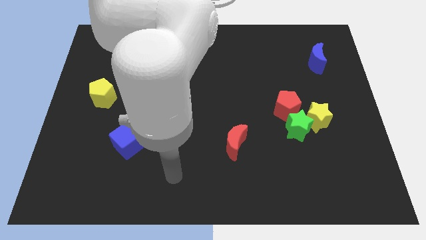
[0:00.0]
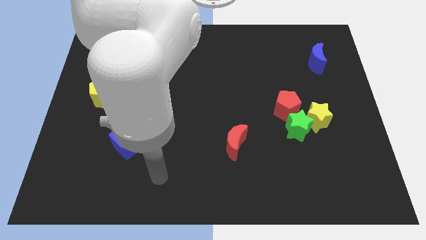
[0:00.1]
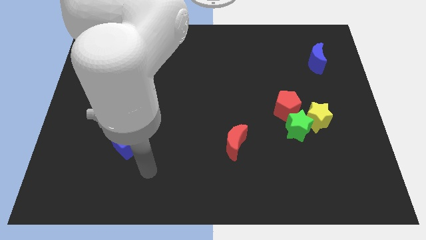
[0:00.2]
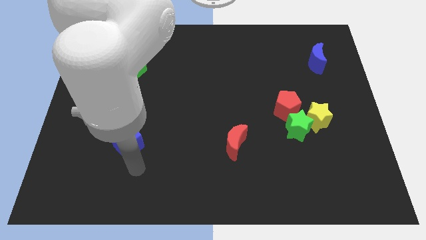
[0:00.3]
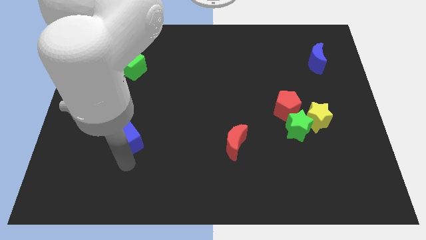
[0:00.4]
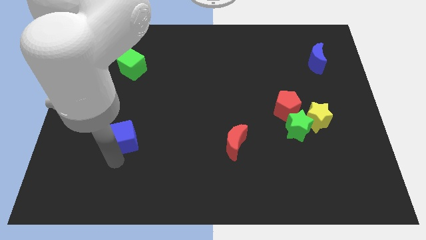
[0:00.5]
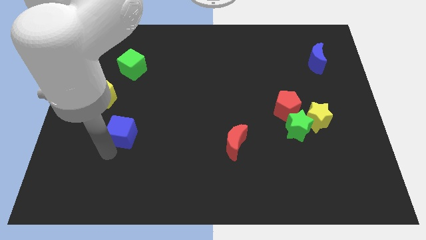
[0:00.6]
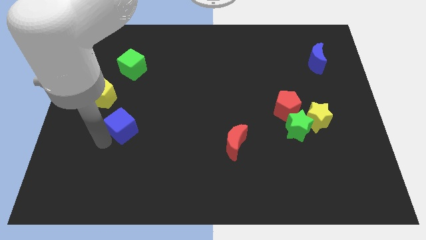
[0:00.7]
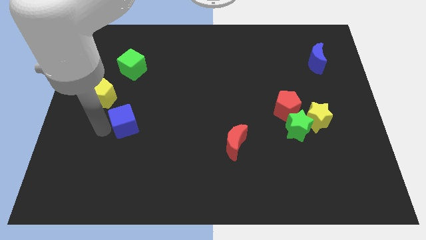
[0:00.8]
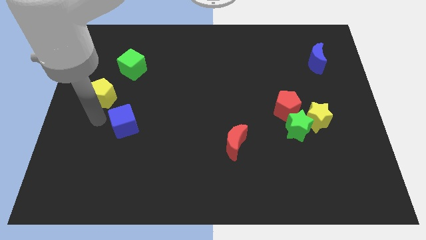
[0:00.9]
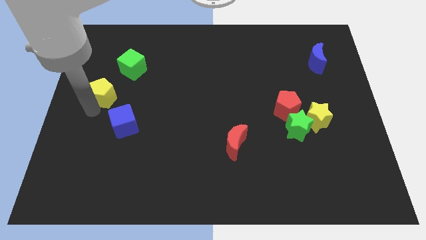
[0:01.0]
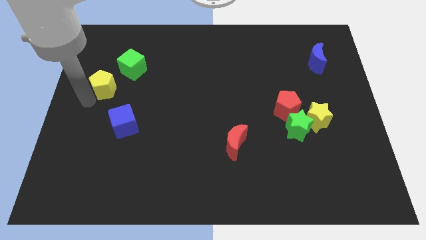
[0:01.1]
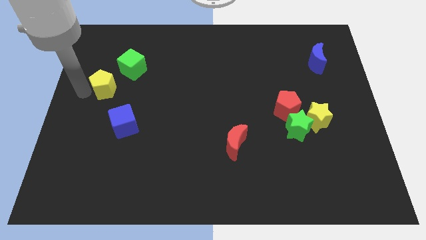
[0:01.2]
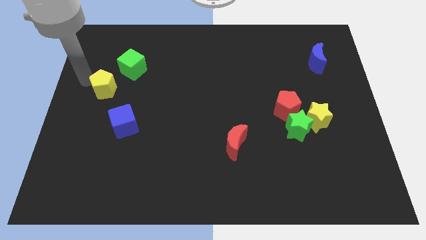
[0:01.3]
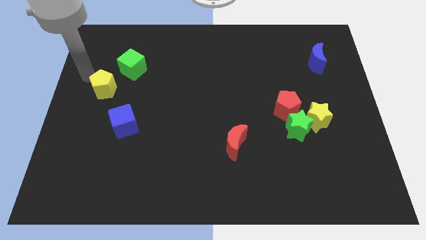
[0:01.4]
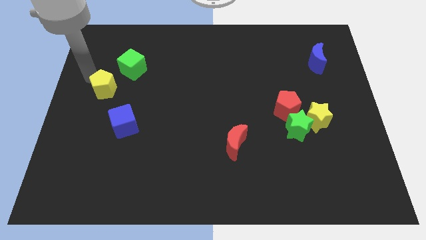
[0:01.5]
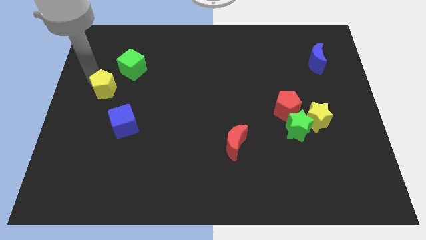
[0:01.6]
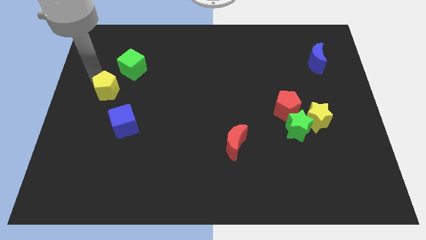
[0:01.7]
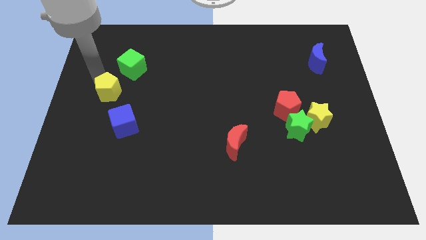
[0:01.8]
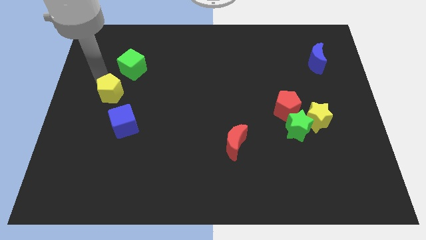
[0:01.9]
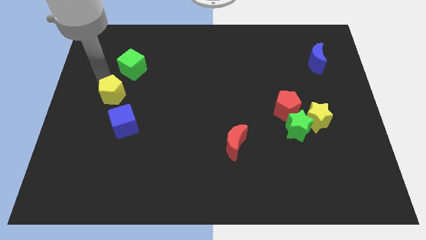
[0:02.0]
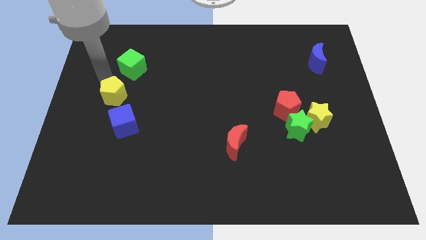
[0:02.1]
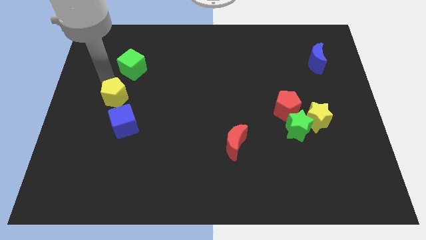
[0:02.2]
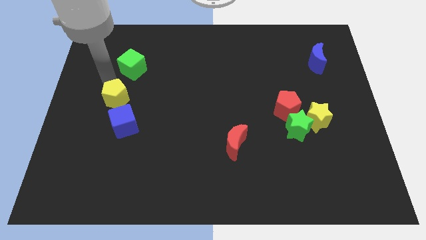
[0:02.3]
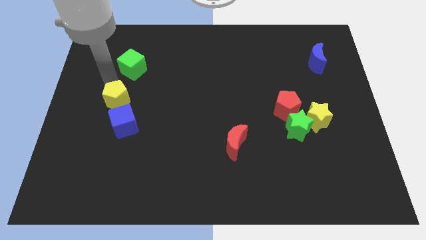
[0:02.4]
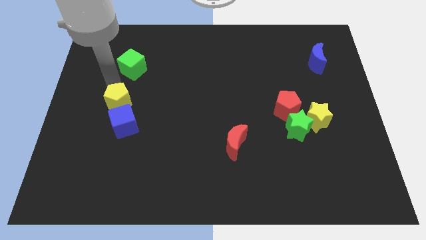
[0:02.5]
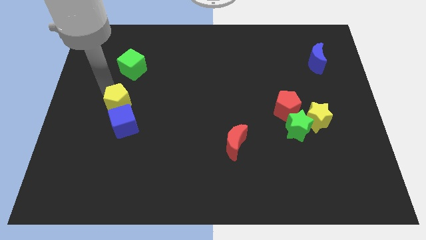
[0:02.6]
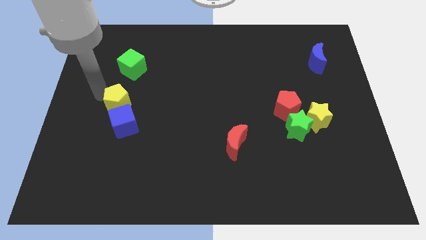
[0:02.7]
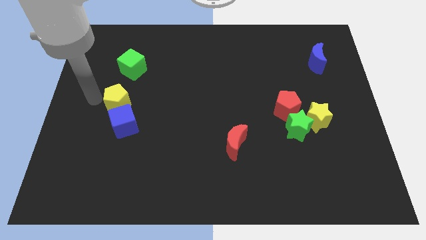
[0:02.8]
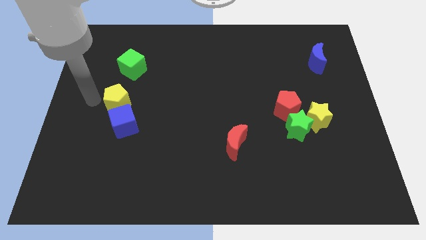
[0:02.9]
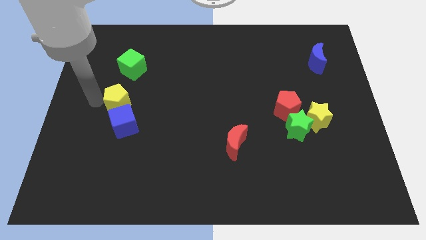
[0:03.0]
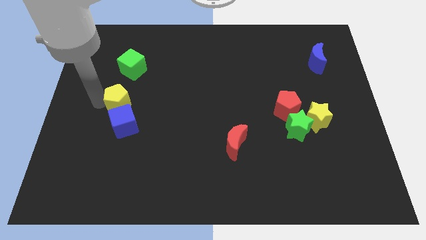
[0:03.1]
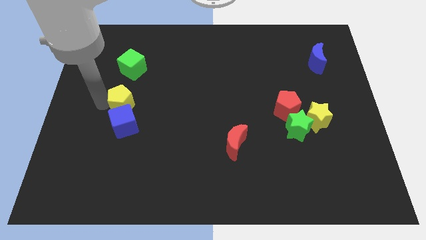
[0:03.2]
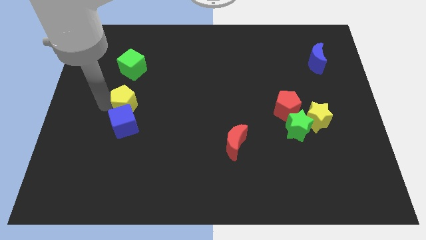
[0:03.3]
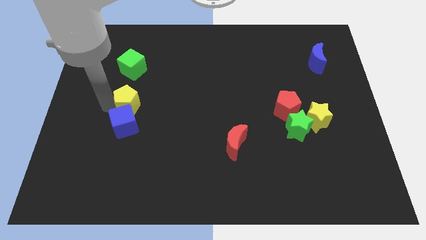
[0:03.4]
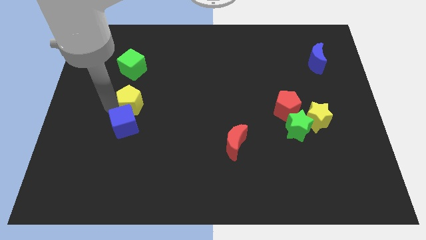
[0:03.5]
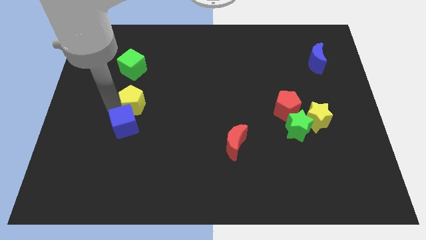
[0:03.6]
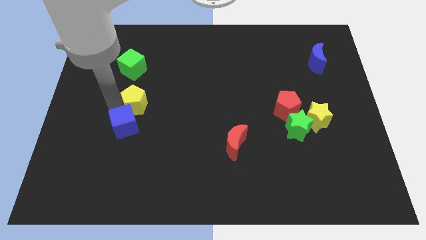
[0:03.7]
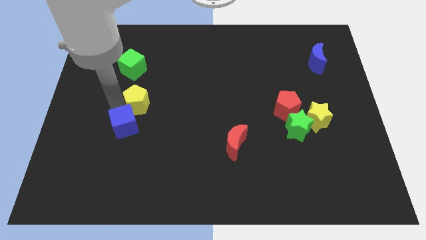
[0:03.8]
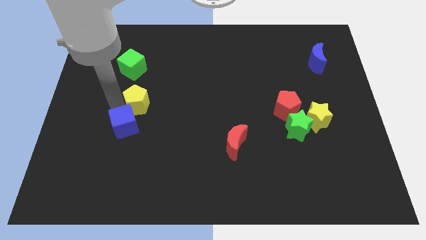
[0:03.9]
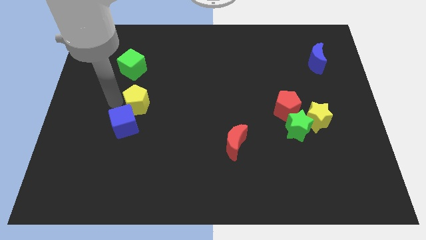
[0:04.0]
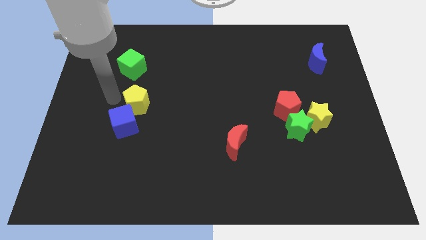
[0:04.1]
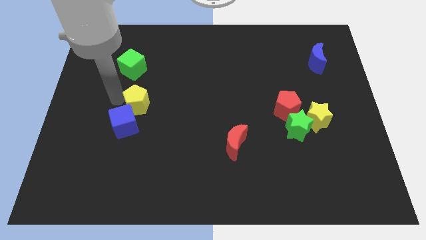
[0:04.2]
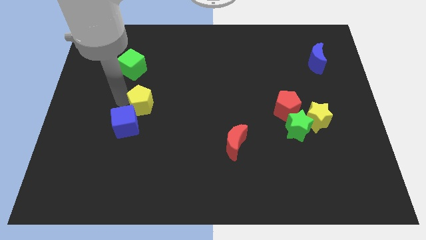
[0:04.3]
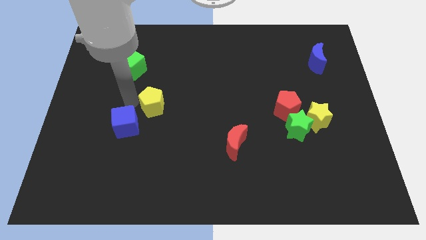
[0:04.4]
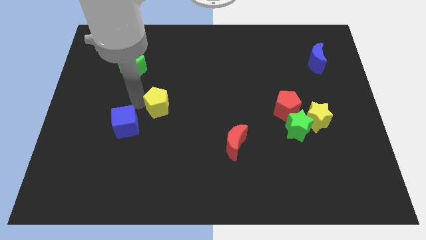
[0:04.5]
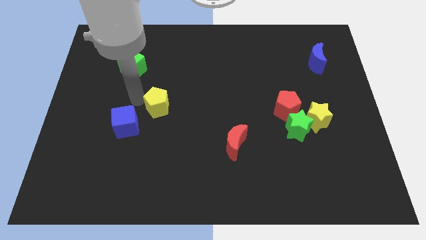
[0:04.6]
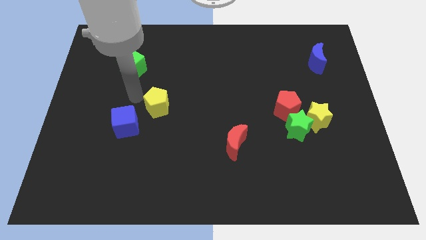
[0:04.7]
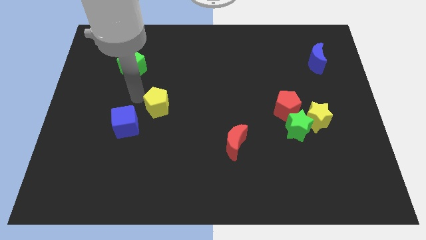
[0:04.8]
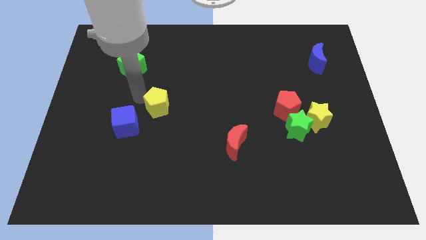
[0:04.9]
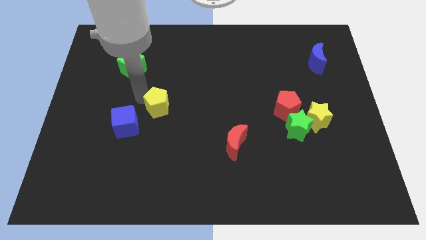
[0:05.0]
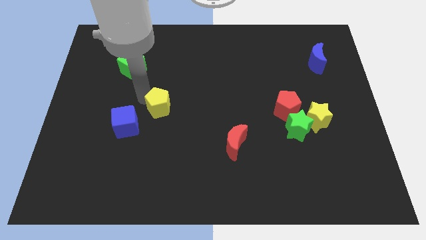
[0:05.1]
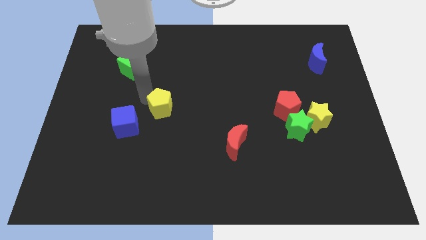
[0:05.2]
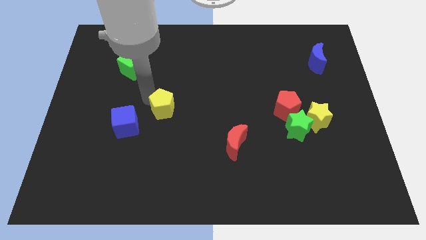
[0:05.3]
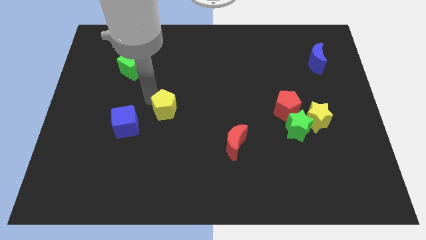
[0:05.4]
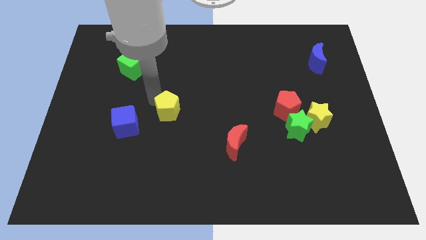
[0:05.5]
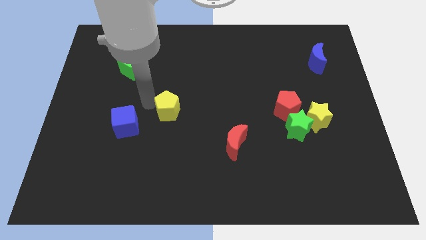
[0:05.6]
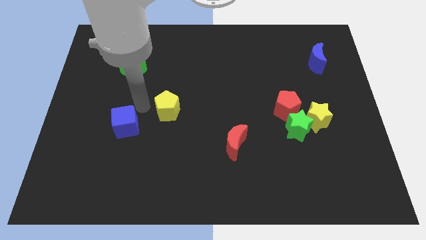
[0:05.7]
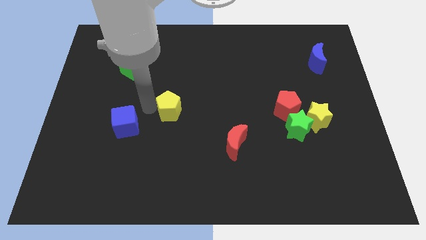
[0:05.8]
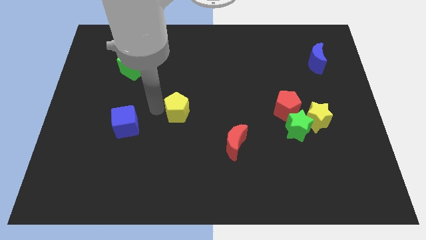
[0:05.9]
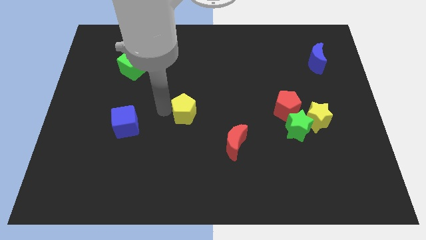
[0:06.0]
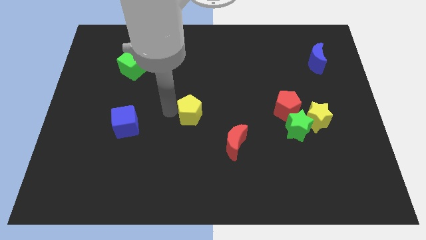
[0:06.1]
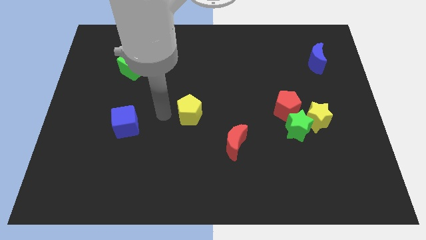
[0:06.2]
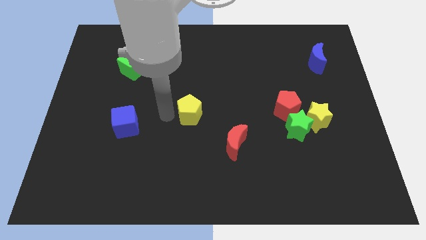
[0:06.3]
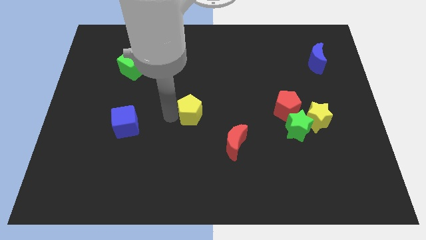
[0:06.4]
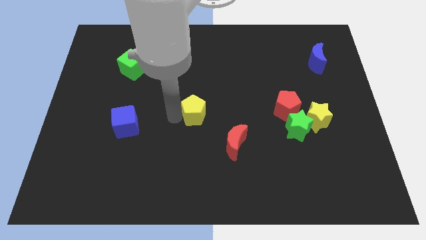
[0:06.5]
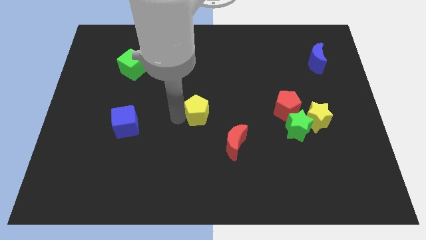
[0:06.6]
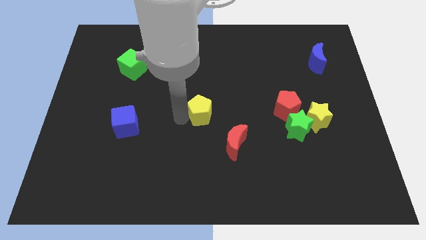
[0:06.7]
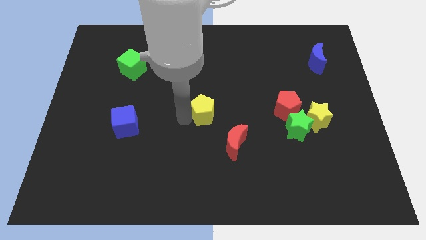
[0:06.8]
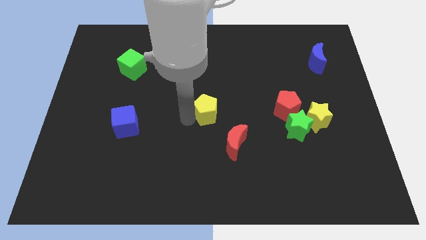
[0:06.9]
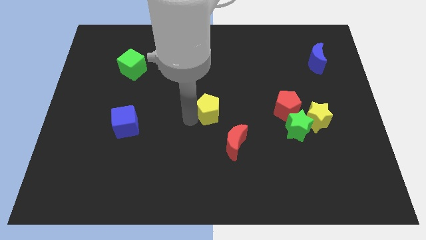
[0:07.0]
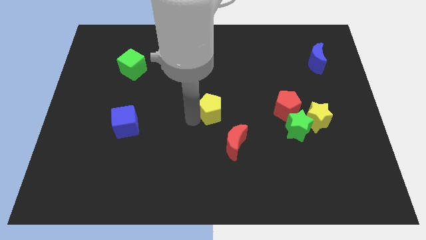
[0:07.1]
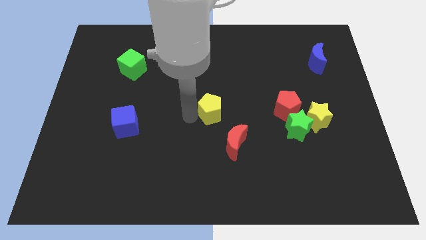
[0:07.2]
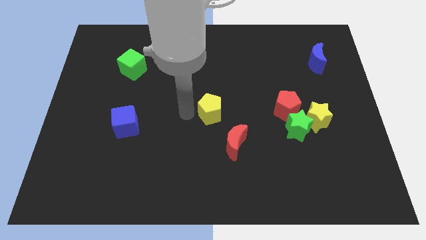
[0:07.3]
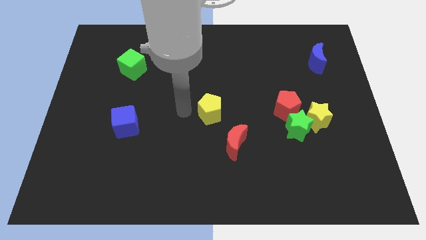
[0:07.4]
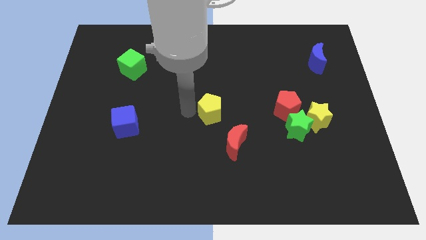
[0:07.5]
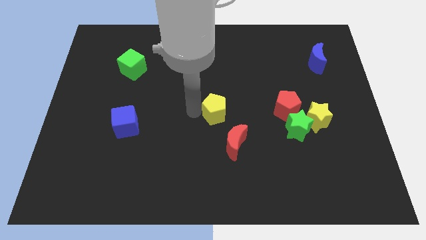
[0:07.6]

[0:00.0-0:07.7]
move the yellow pentagon just left of the red pentagon
